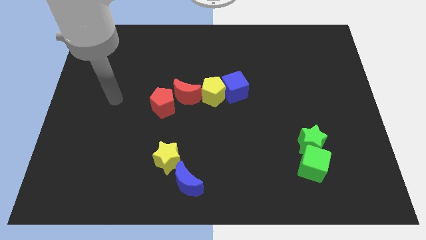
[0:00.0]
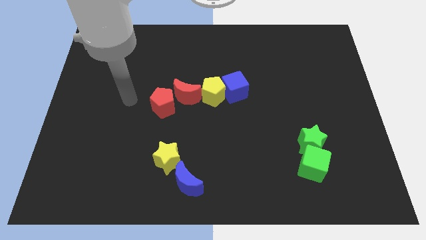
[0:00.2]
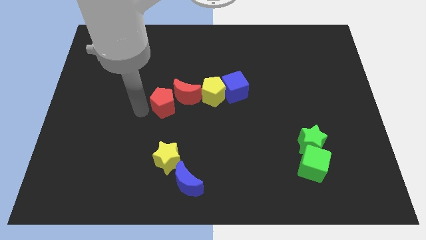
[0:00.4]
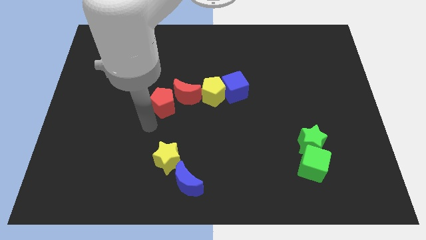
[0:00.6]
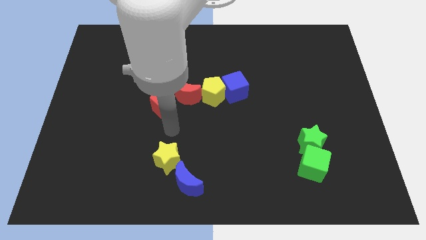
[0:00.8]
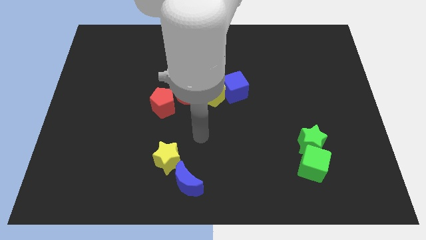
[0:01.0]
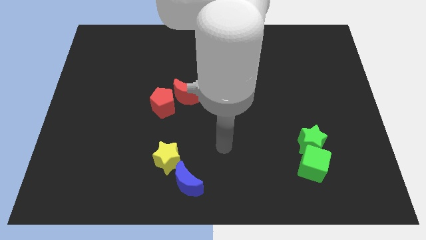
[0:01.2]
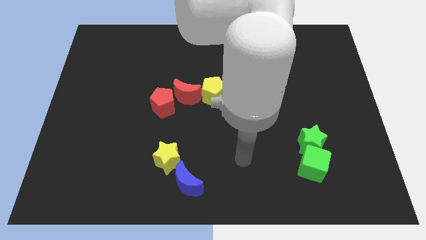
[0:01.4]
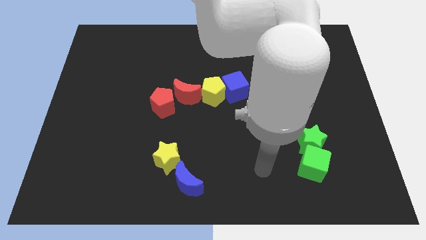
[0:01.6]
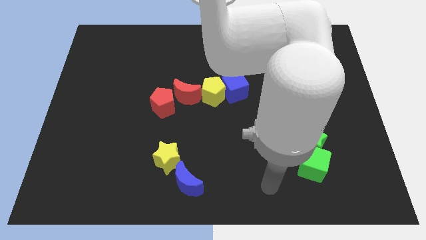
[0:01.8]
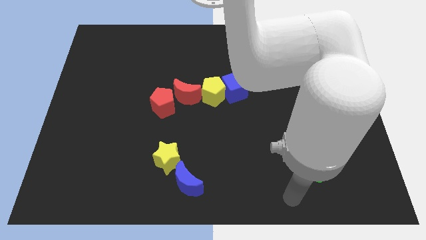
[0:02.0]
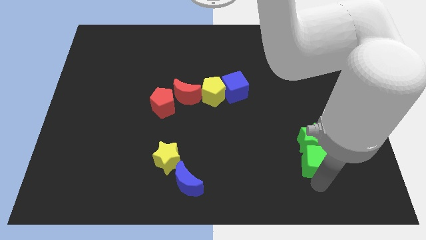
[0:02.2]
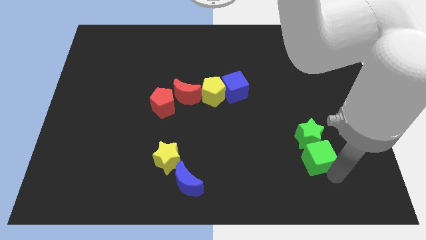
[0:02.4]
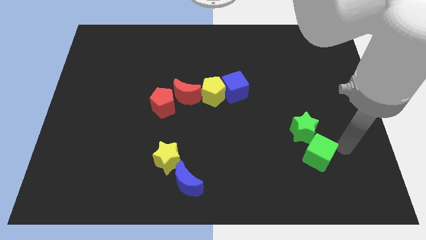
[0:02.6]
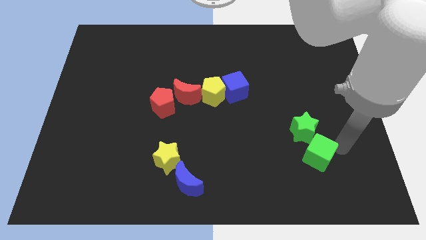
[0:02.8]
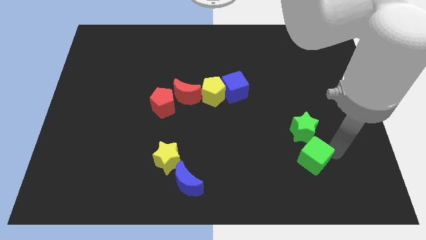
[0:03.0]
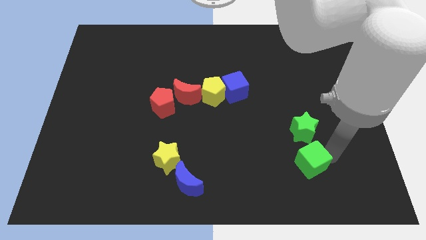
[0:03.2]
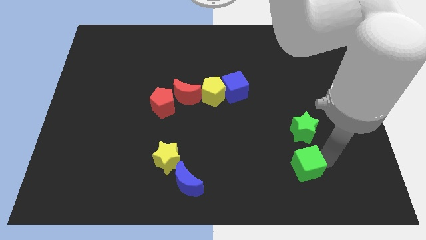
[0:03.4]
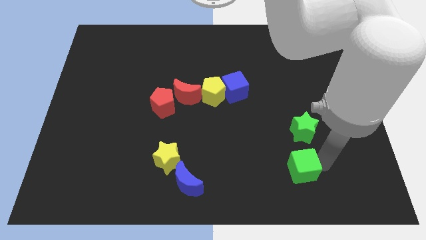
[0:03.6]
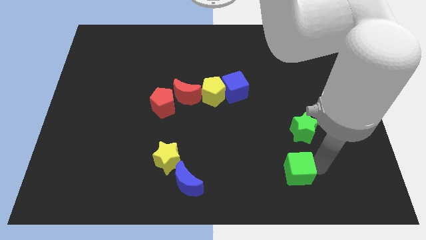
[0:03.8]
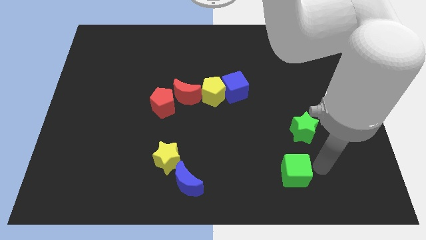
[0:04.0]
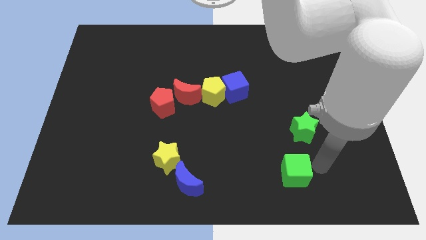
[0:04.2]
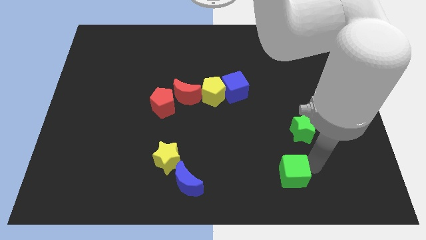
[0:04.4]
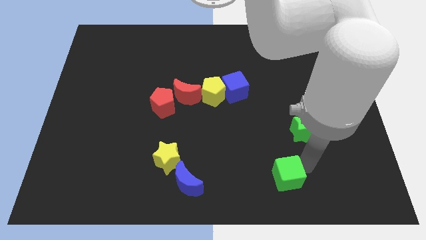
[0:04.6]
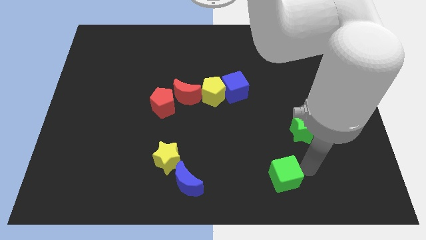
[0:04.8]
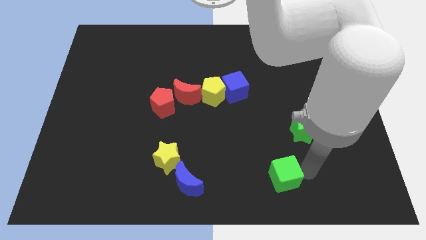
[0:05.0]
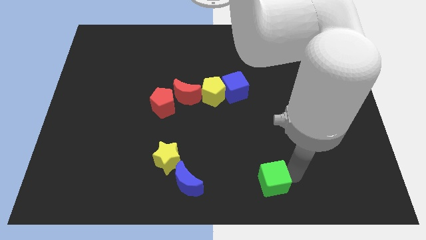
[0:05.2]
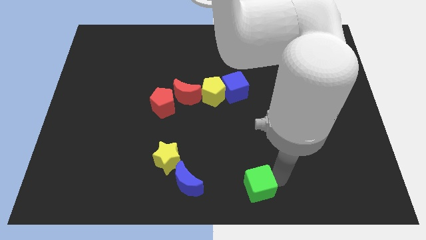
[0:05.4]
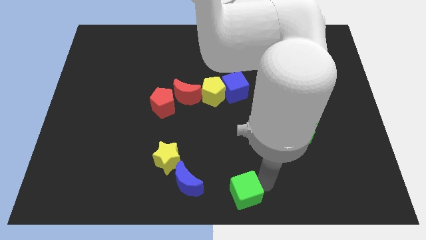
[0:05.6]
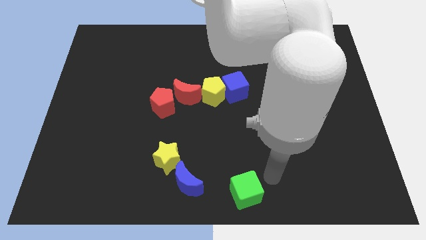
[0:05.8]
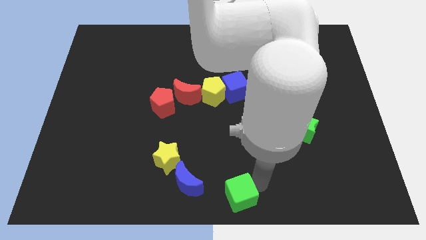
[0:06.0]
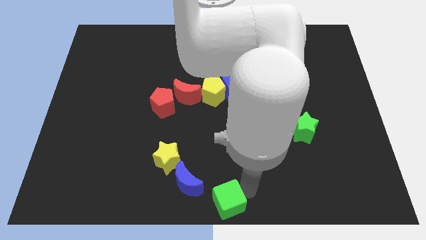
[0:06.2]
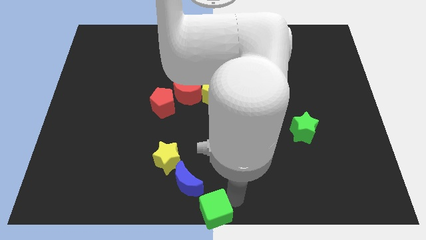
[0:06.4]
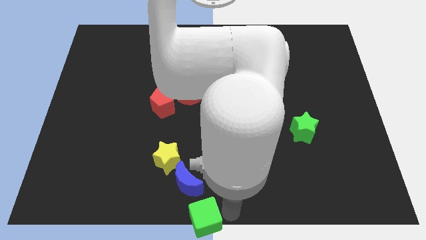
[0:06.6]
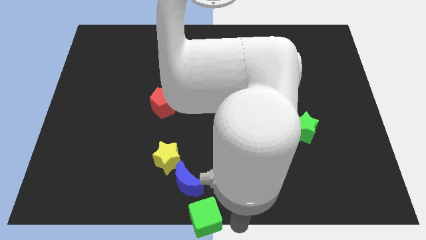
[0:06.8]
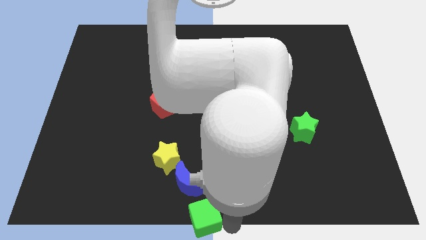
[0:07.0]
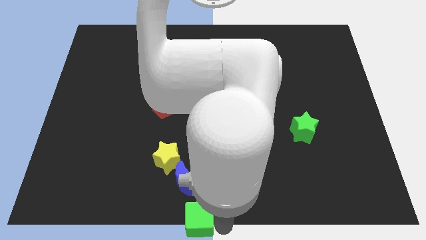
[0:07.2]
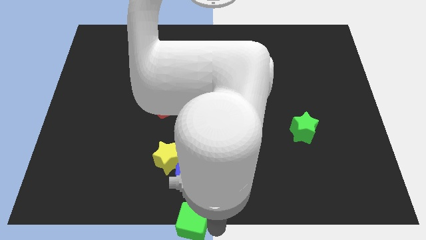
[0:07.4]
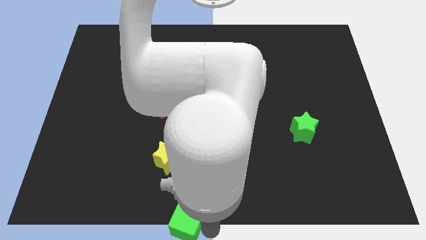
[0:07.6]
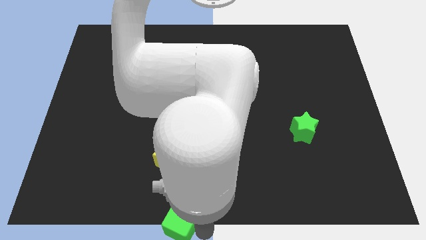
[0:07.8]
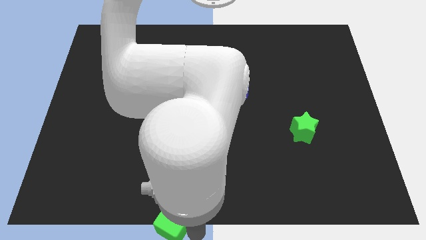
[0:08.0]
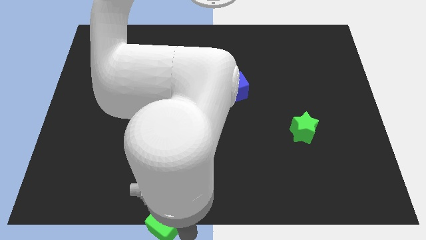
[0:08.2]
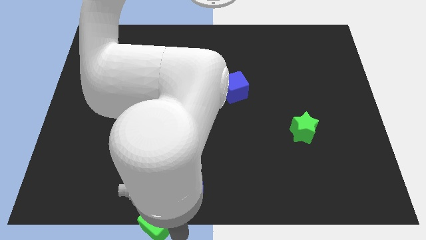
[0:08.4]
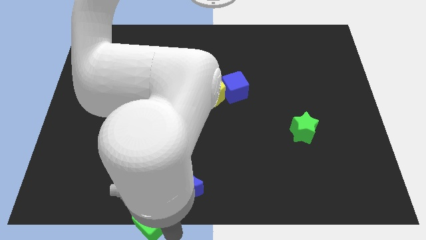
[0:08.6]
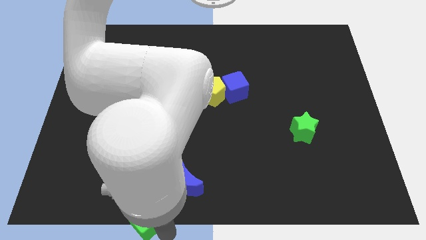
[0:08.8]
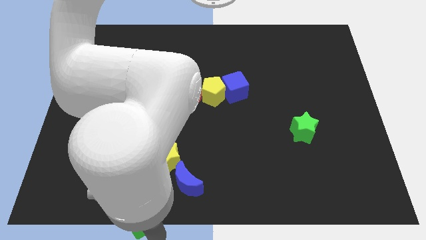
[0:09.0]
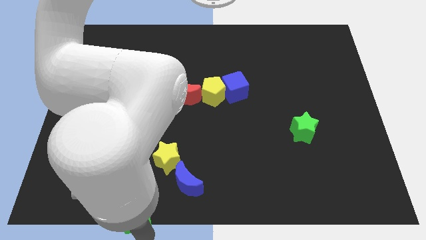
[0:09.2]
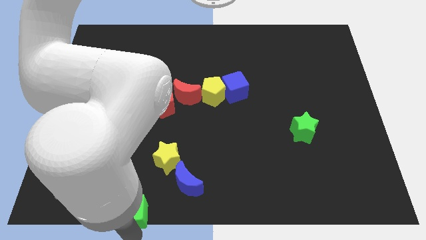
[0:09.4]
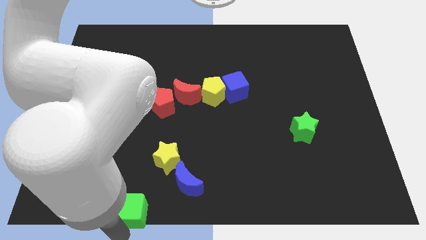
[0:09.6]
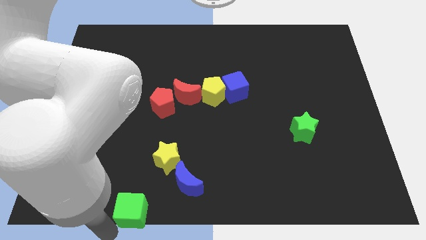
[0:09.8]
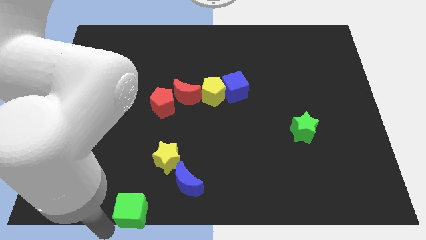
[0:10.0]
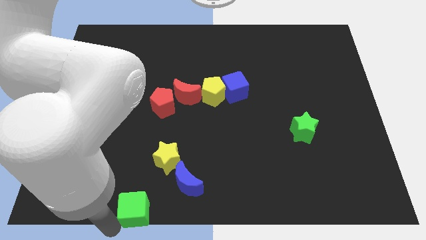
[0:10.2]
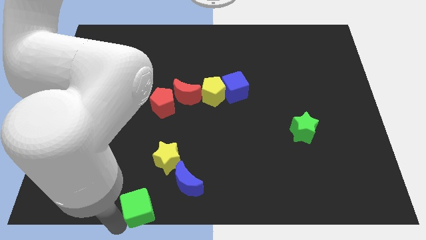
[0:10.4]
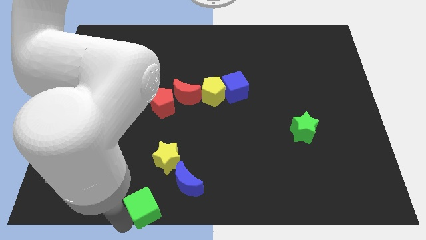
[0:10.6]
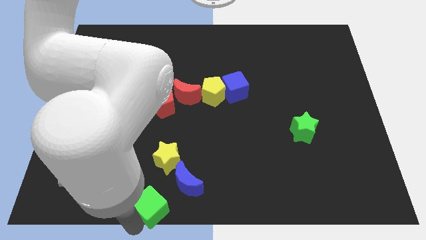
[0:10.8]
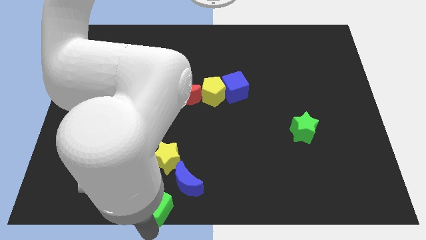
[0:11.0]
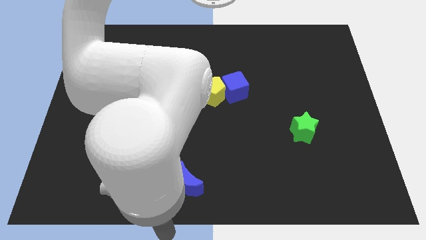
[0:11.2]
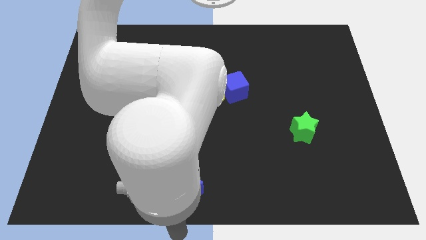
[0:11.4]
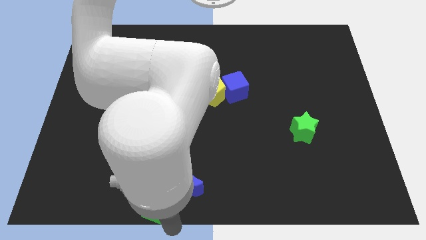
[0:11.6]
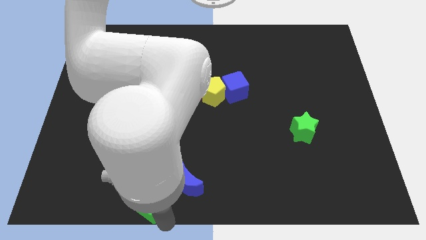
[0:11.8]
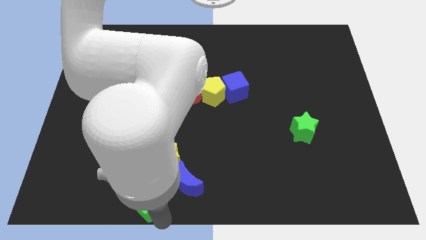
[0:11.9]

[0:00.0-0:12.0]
move the green cube diagonally down and to the left of the yellow star

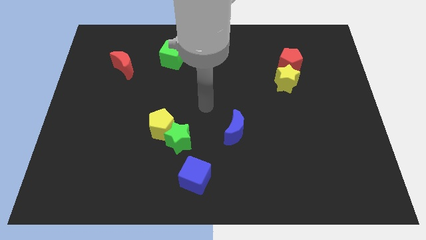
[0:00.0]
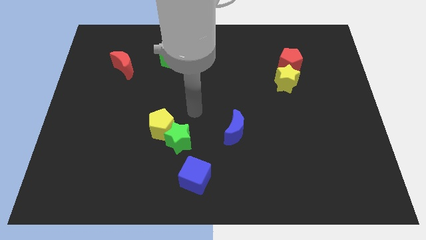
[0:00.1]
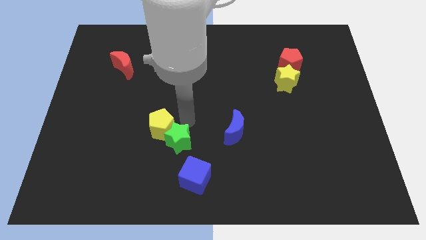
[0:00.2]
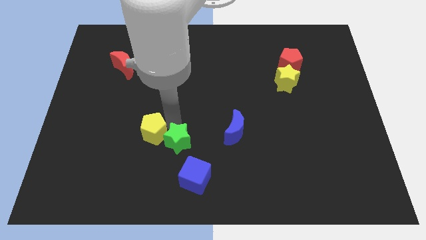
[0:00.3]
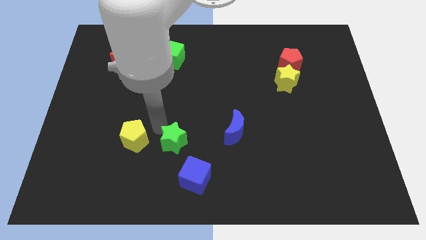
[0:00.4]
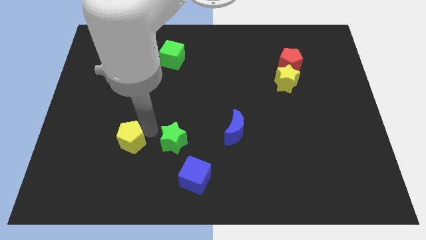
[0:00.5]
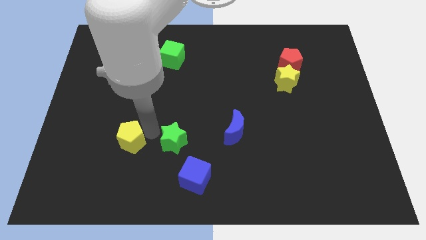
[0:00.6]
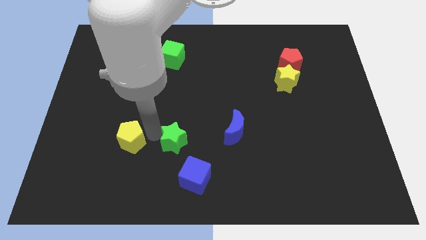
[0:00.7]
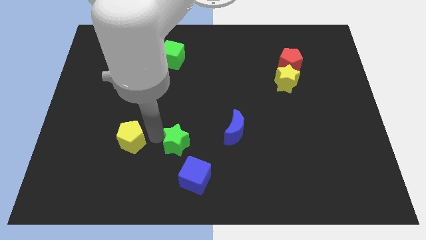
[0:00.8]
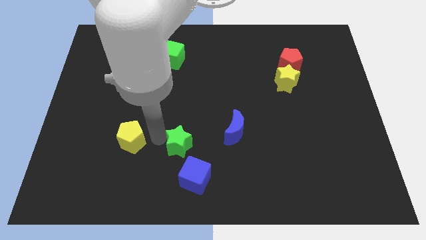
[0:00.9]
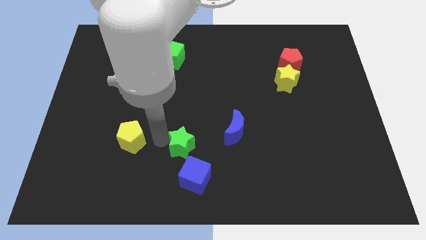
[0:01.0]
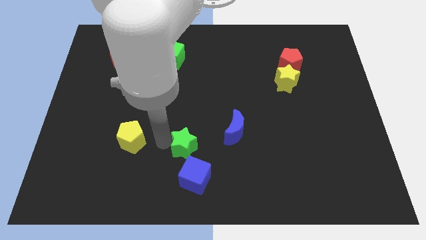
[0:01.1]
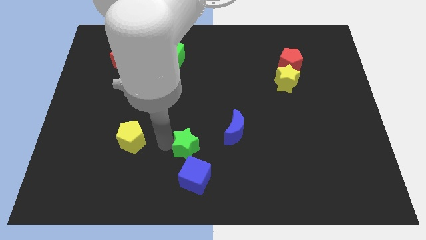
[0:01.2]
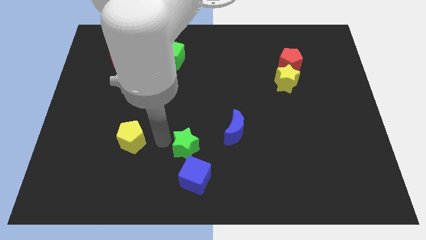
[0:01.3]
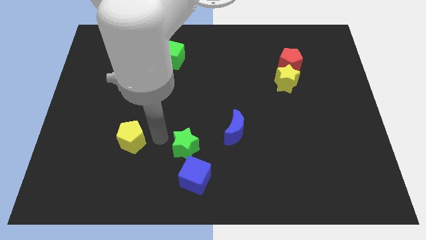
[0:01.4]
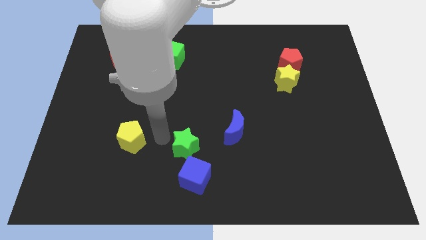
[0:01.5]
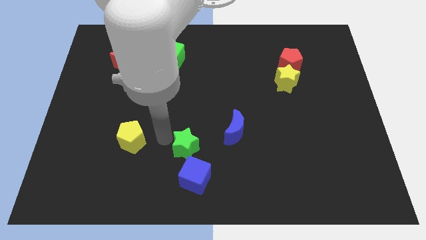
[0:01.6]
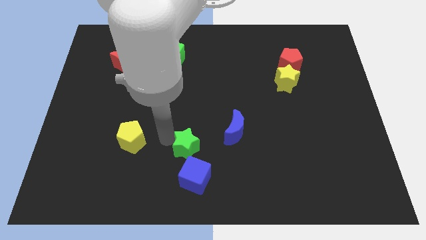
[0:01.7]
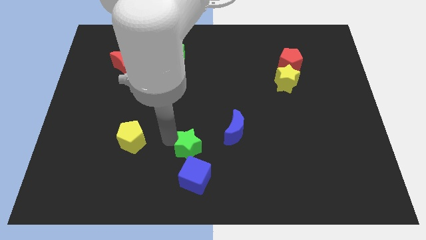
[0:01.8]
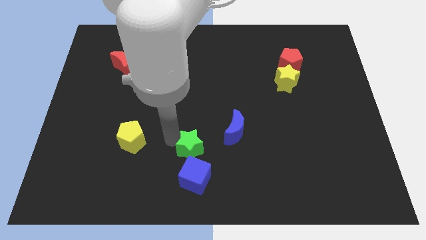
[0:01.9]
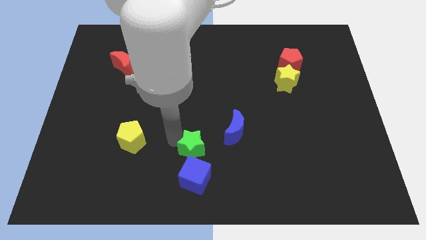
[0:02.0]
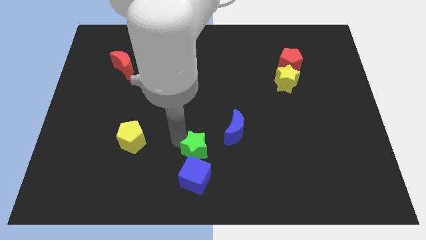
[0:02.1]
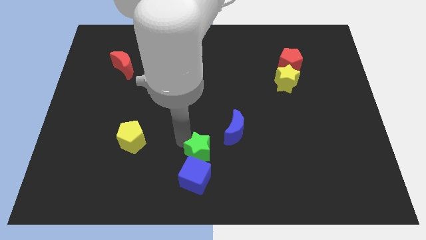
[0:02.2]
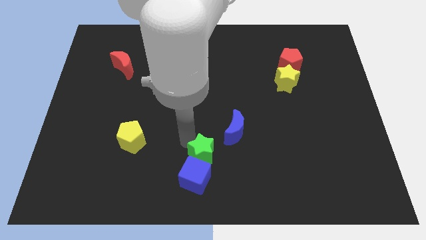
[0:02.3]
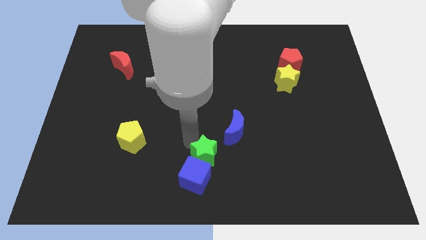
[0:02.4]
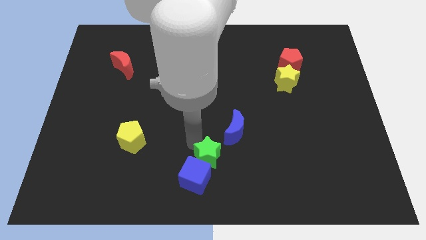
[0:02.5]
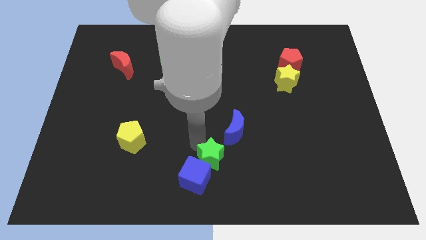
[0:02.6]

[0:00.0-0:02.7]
move the green star right of the blue cube
